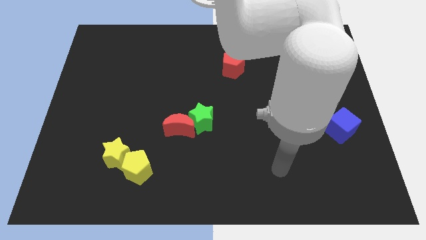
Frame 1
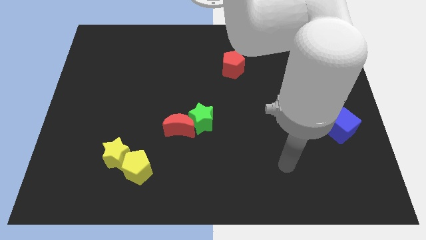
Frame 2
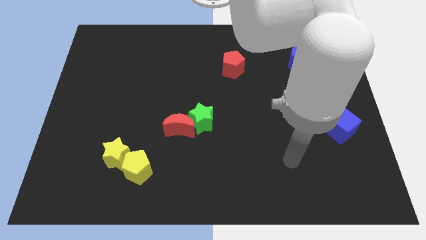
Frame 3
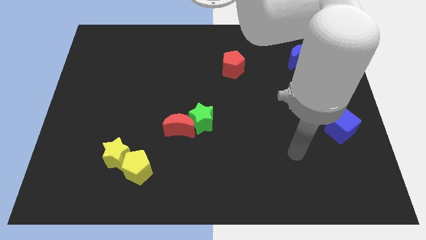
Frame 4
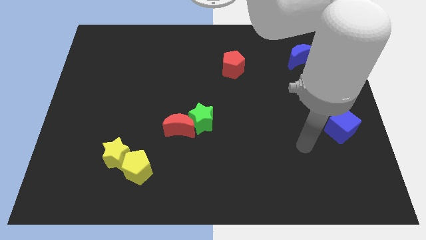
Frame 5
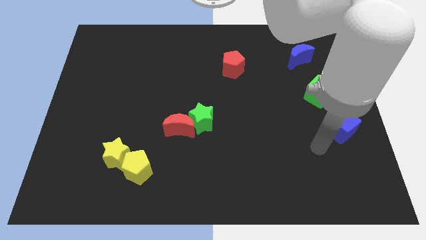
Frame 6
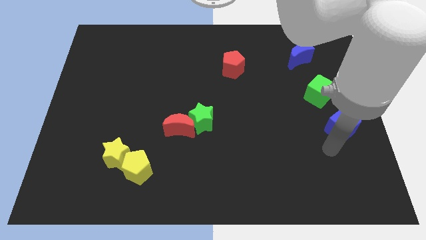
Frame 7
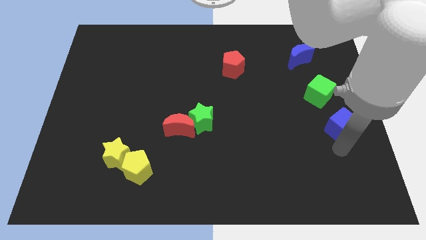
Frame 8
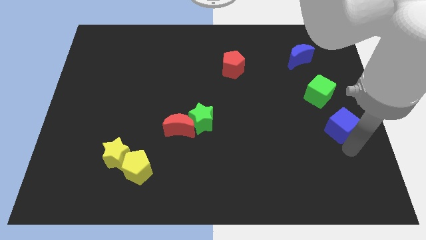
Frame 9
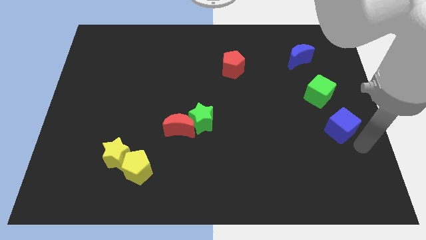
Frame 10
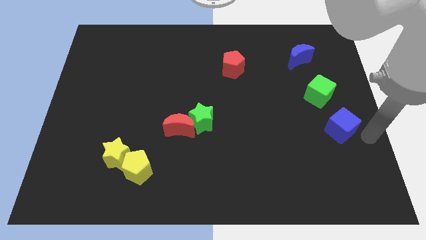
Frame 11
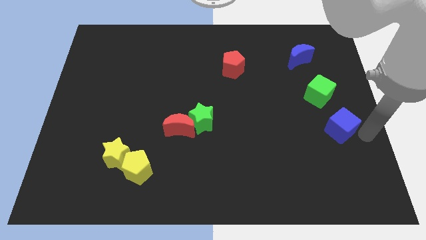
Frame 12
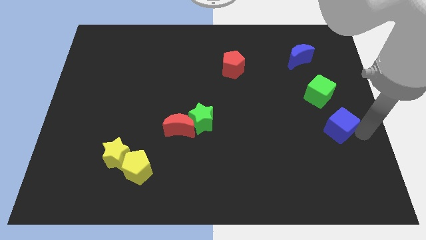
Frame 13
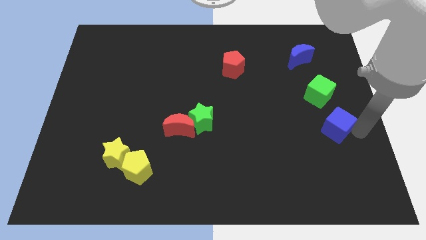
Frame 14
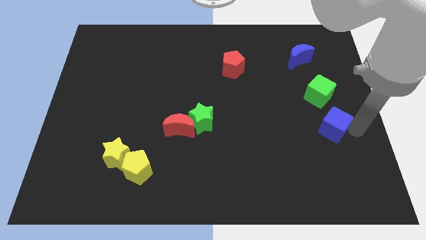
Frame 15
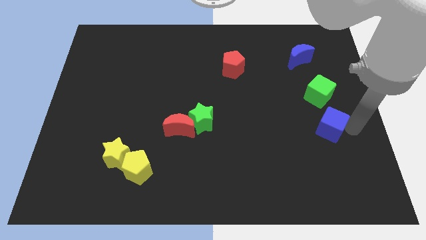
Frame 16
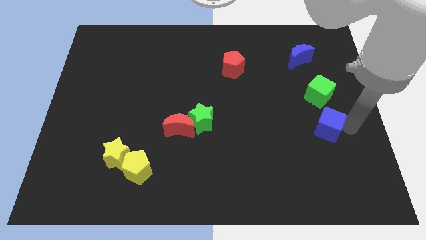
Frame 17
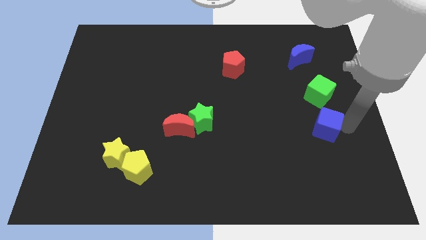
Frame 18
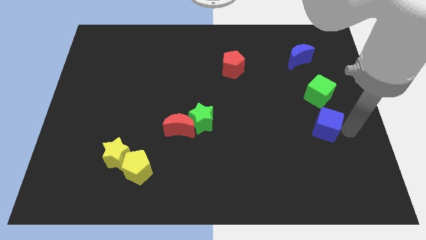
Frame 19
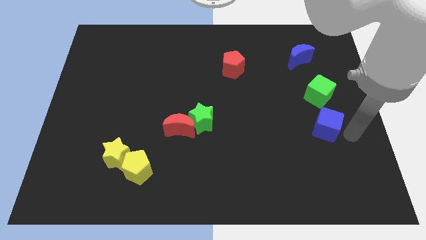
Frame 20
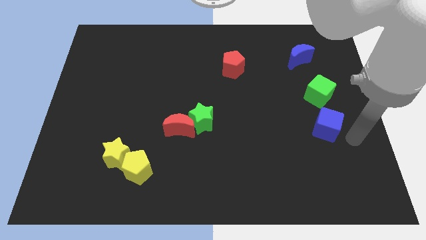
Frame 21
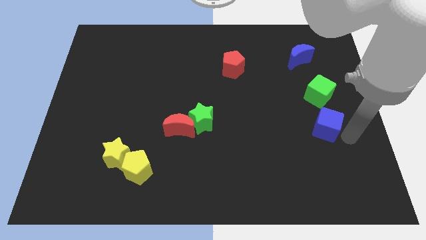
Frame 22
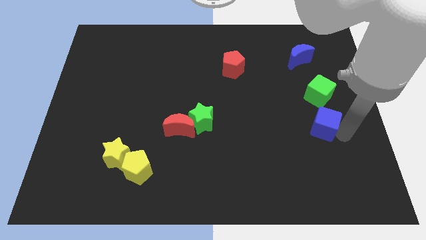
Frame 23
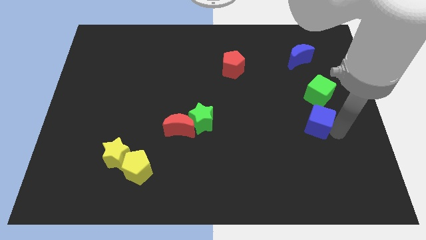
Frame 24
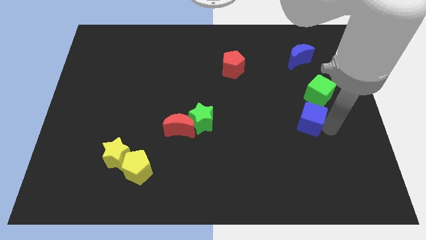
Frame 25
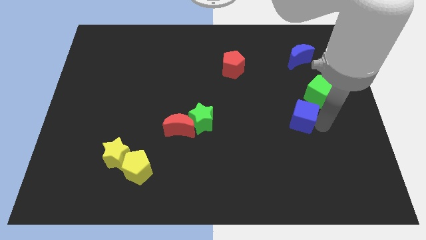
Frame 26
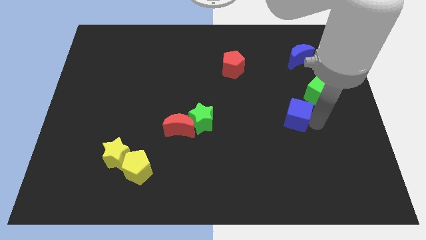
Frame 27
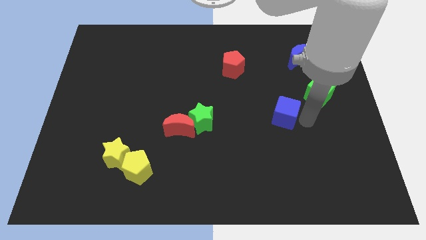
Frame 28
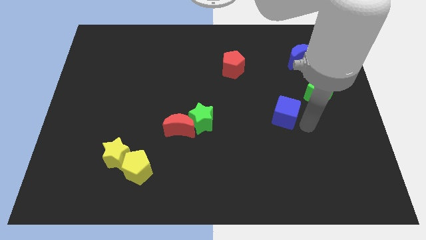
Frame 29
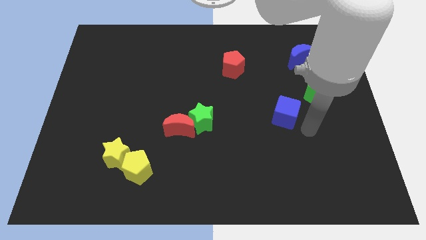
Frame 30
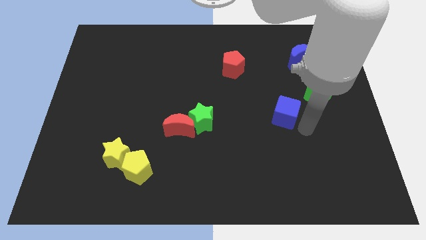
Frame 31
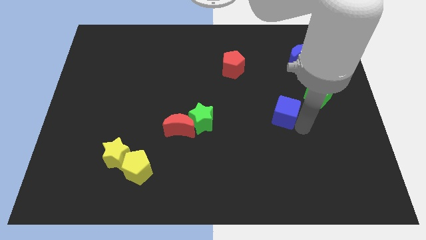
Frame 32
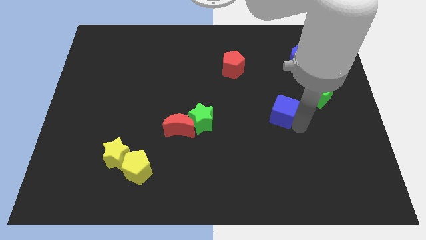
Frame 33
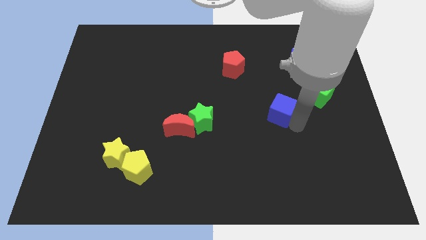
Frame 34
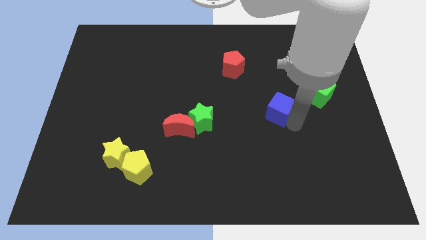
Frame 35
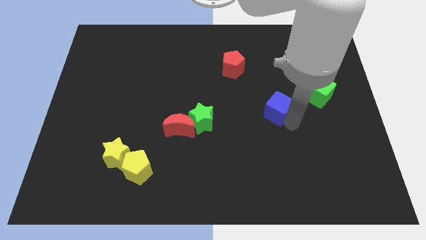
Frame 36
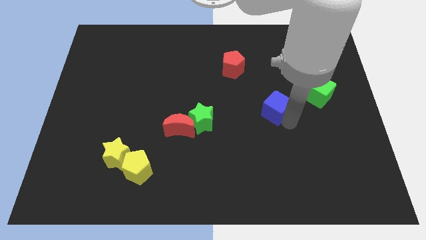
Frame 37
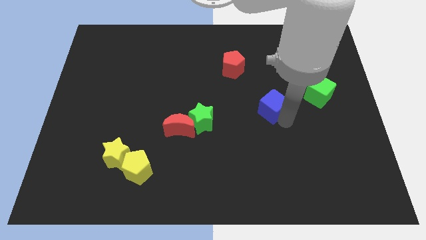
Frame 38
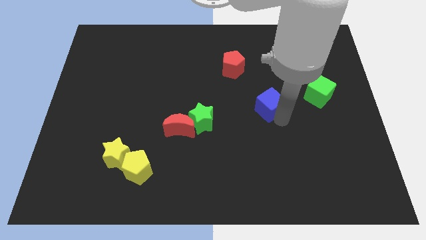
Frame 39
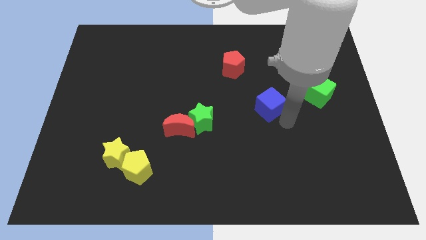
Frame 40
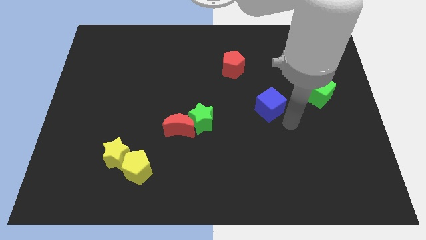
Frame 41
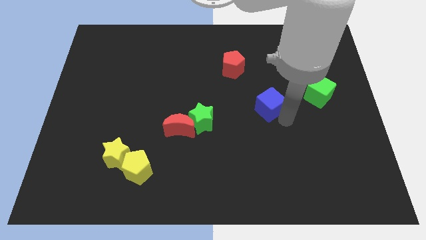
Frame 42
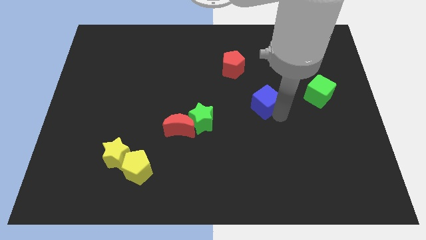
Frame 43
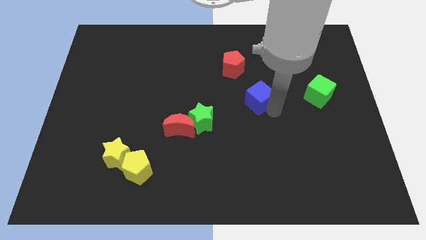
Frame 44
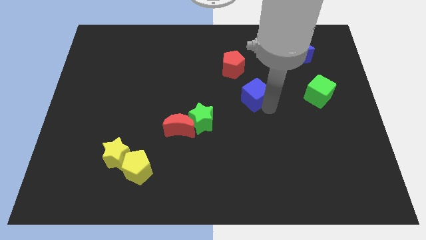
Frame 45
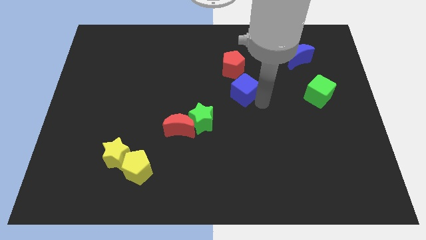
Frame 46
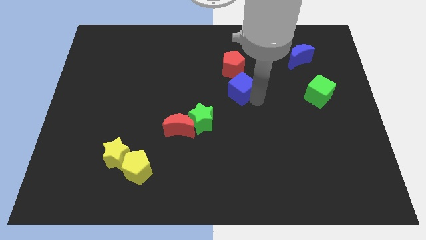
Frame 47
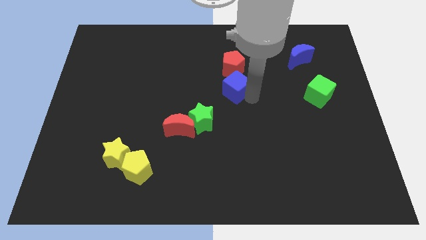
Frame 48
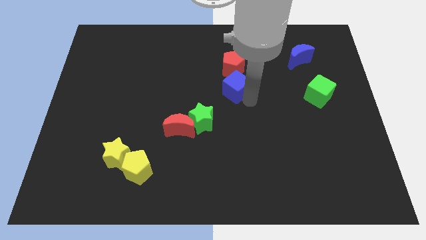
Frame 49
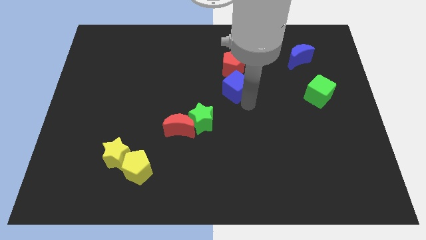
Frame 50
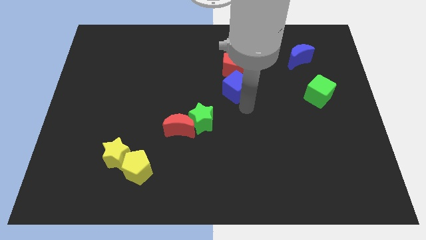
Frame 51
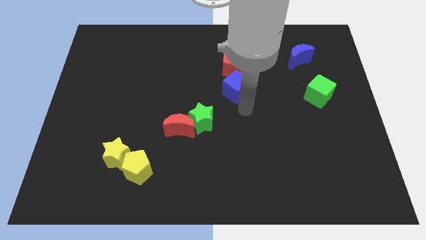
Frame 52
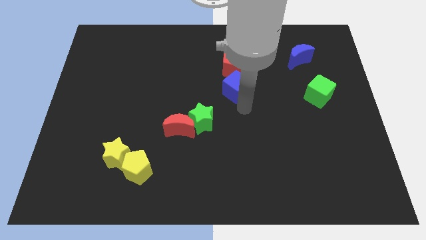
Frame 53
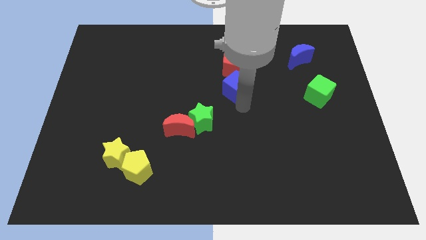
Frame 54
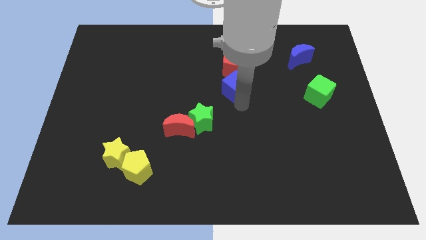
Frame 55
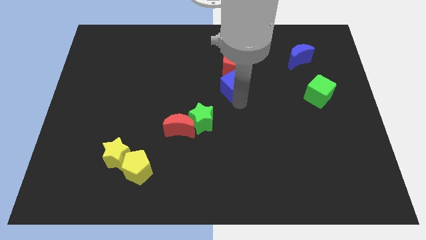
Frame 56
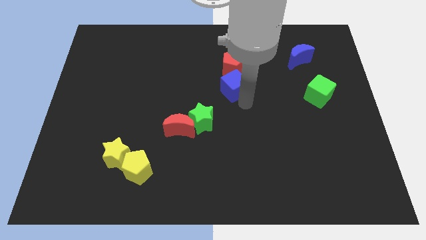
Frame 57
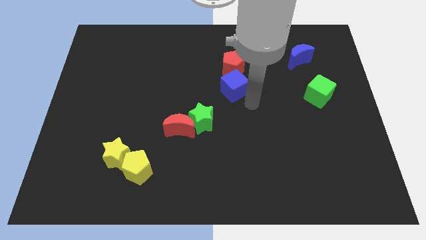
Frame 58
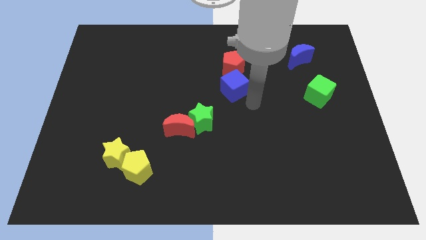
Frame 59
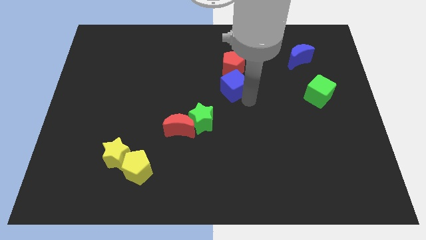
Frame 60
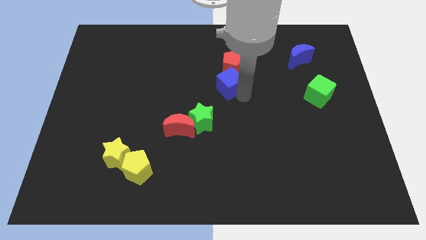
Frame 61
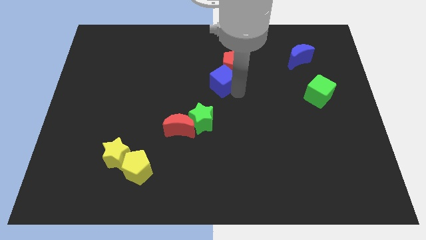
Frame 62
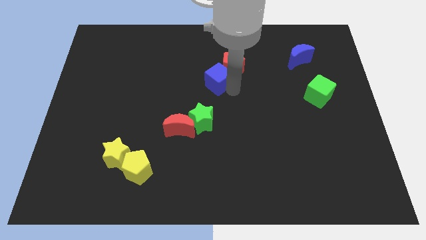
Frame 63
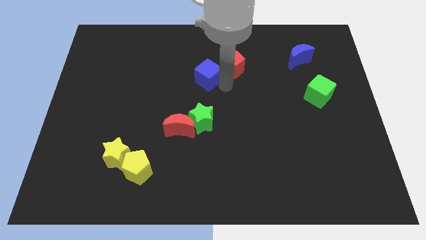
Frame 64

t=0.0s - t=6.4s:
move the blue cube left of the red pentagon
